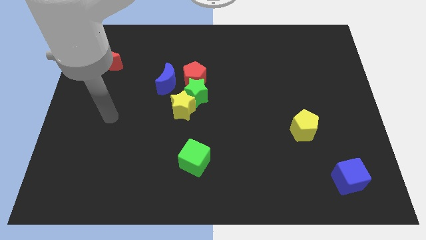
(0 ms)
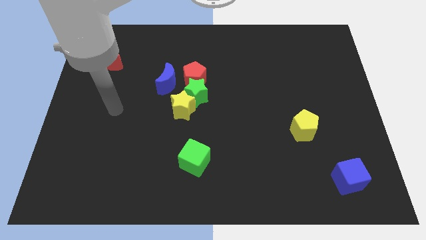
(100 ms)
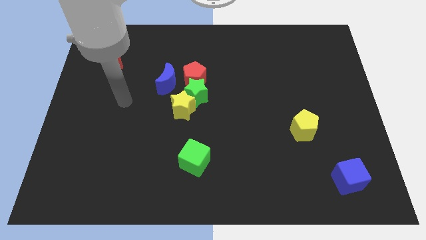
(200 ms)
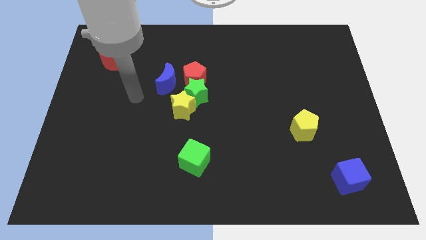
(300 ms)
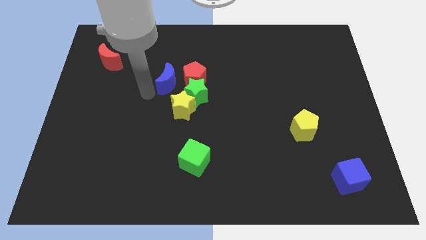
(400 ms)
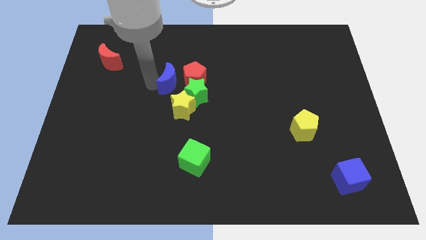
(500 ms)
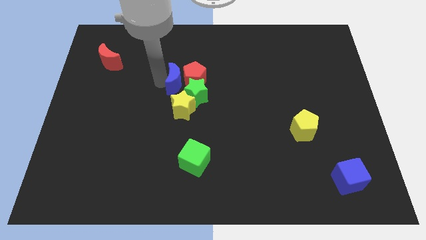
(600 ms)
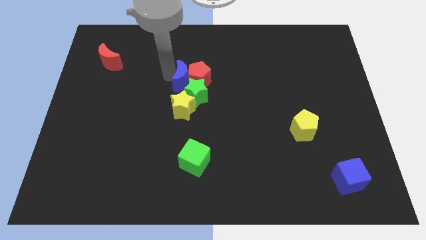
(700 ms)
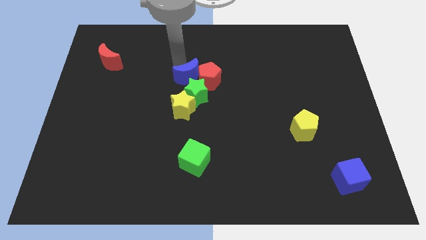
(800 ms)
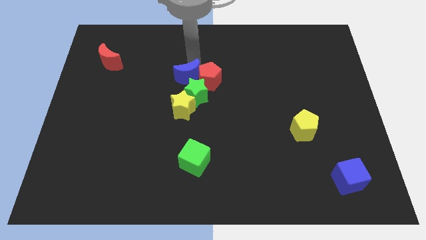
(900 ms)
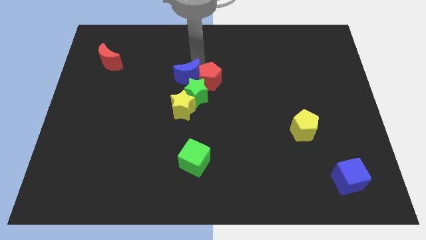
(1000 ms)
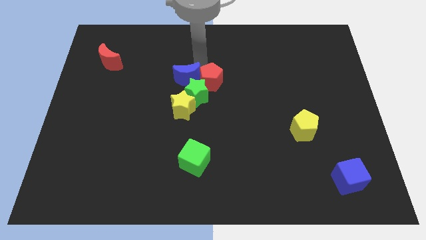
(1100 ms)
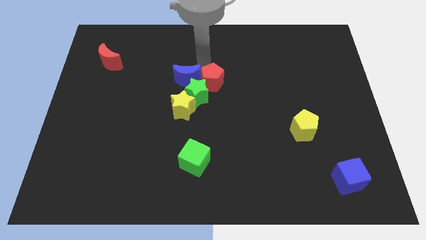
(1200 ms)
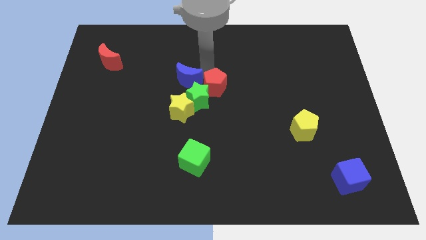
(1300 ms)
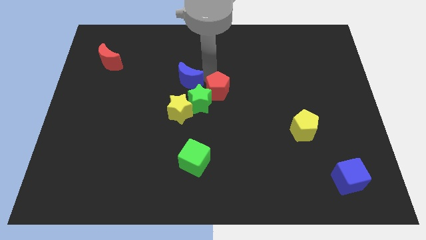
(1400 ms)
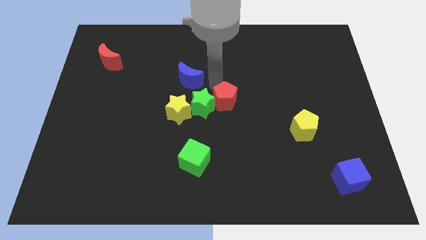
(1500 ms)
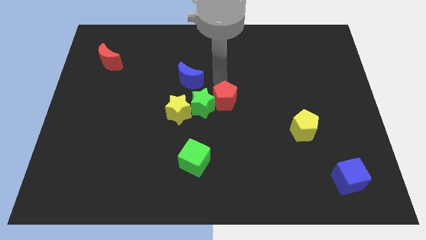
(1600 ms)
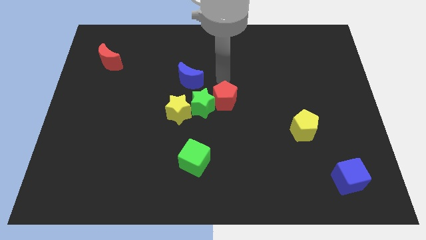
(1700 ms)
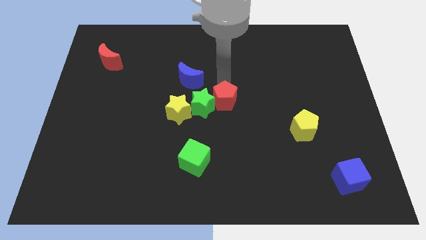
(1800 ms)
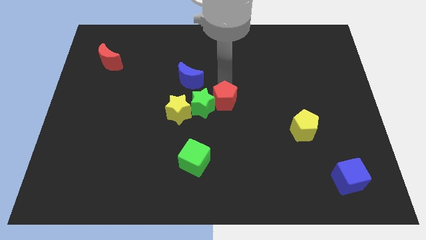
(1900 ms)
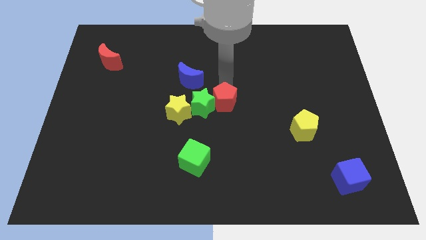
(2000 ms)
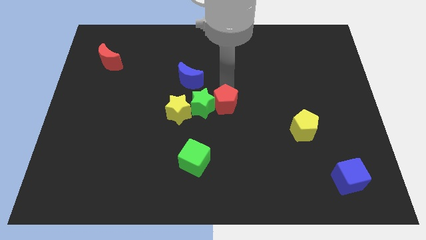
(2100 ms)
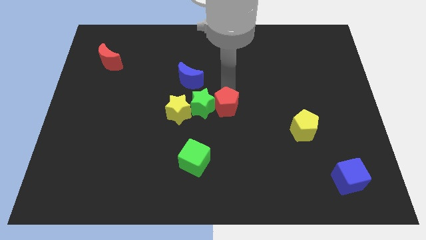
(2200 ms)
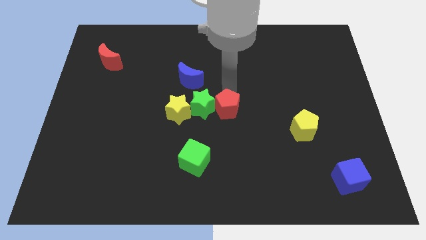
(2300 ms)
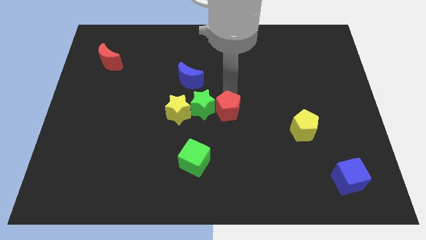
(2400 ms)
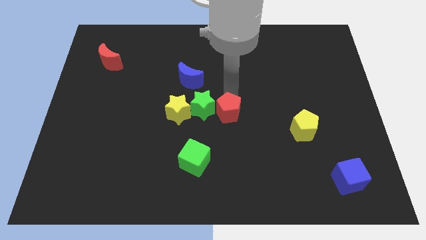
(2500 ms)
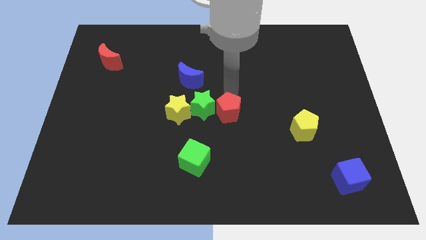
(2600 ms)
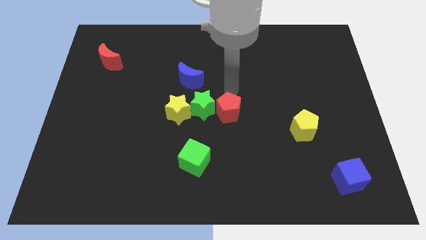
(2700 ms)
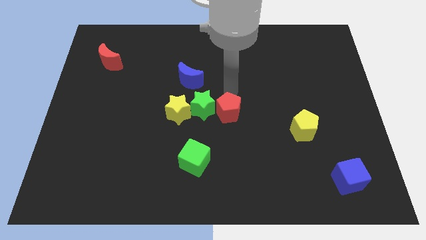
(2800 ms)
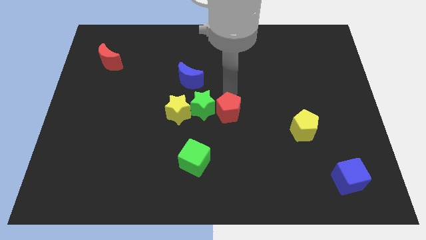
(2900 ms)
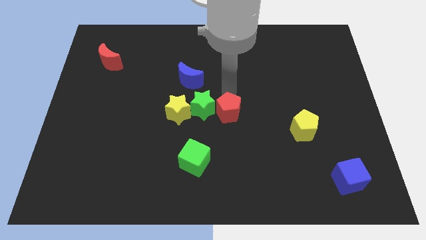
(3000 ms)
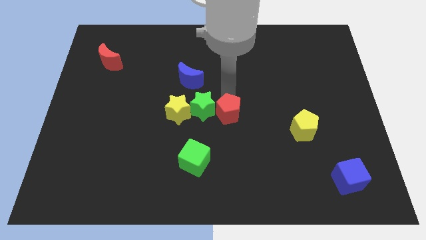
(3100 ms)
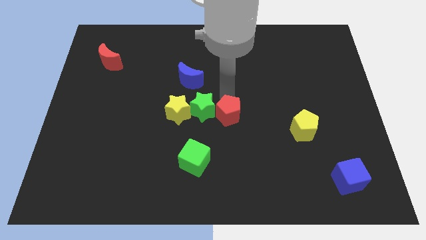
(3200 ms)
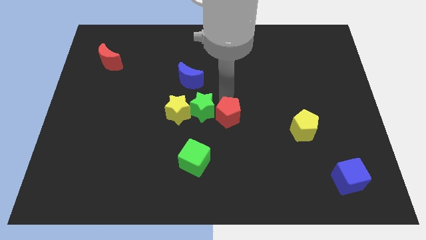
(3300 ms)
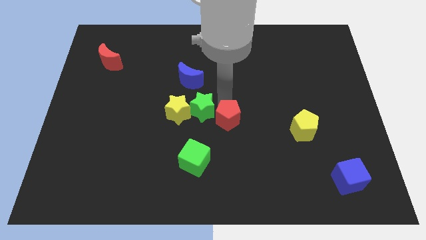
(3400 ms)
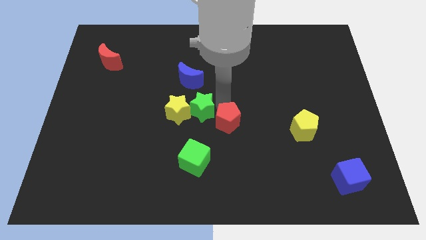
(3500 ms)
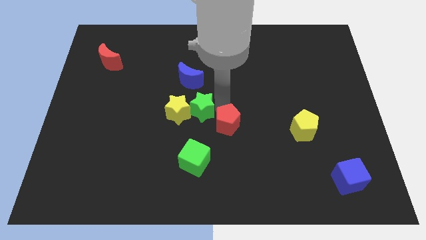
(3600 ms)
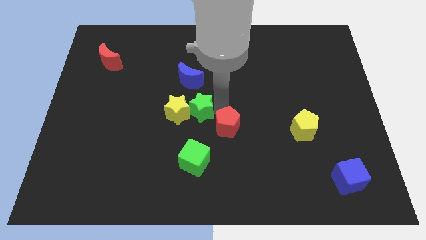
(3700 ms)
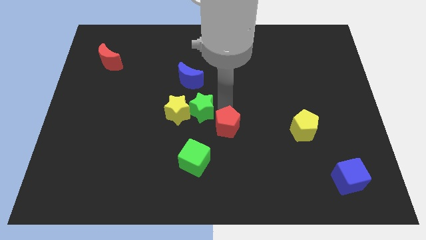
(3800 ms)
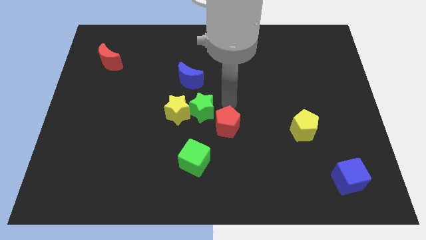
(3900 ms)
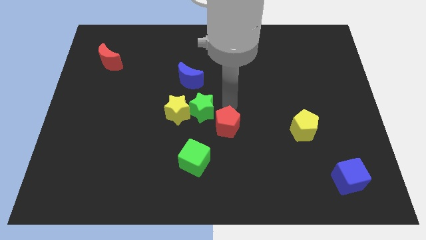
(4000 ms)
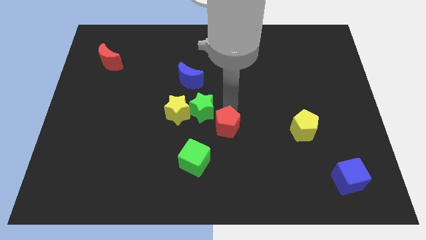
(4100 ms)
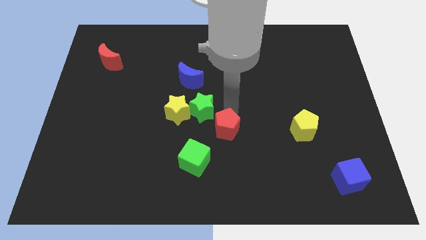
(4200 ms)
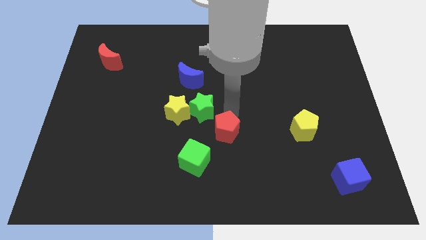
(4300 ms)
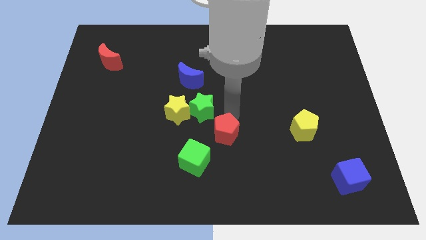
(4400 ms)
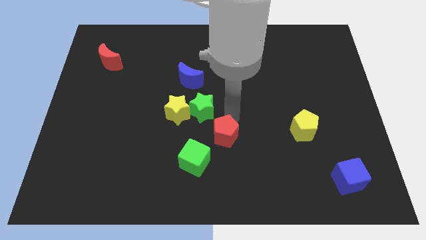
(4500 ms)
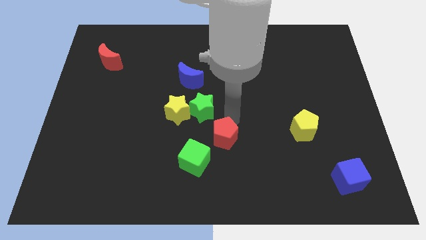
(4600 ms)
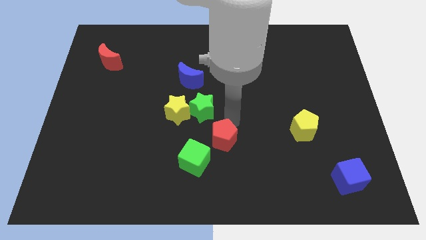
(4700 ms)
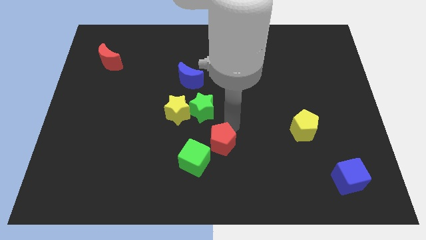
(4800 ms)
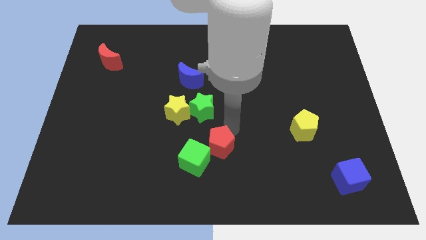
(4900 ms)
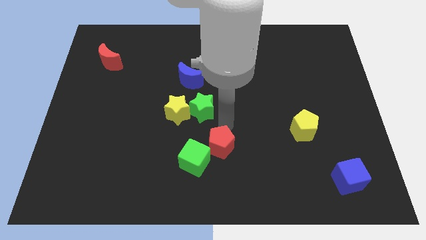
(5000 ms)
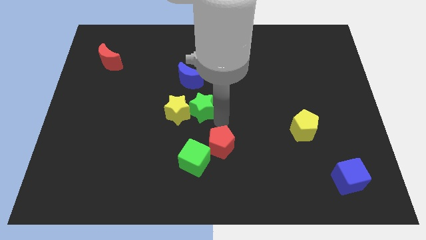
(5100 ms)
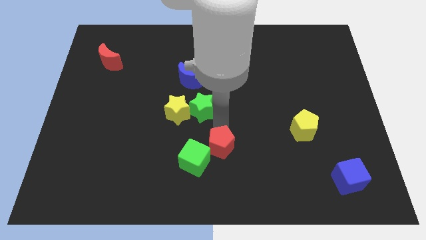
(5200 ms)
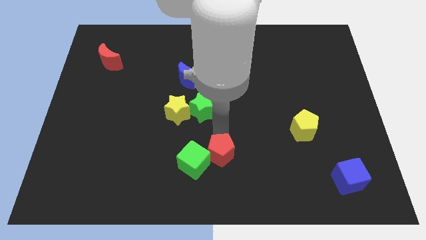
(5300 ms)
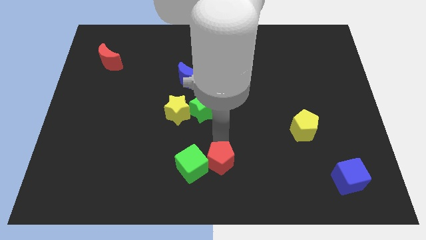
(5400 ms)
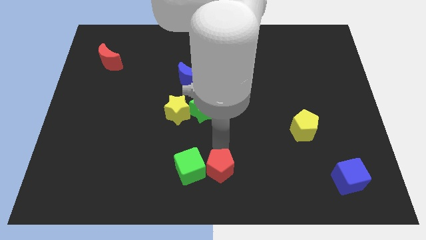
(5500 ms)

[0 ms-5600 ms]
slide the red pentagon to the bottom right side of the green cube
